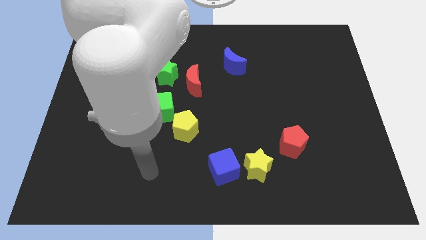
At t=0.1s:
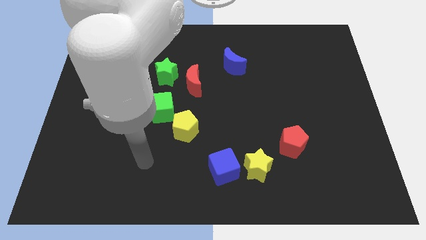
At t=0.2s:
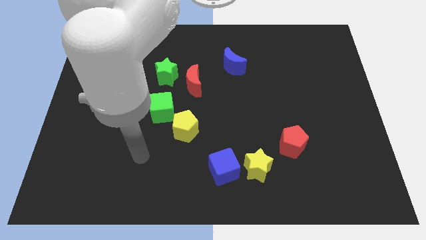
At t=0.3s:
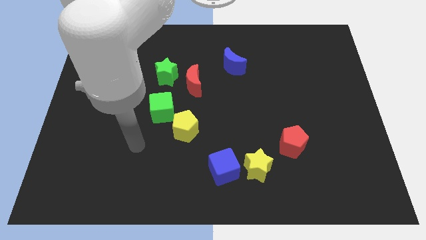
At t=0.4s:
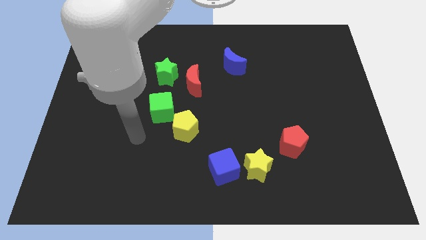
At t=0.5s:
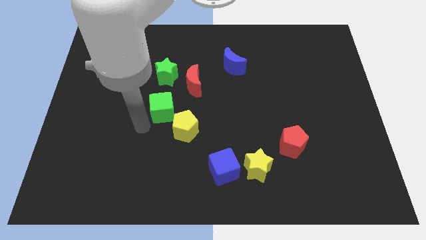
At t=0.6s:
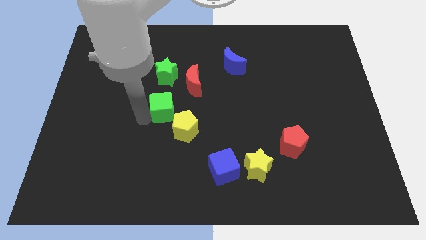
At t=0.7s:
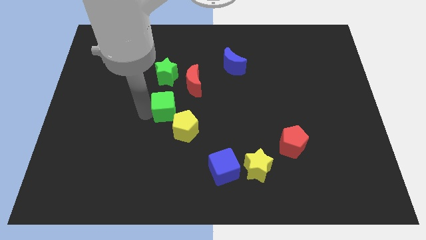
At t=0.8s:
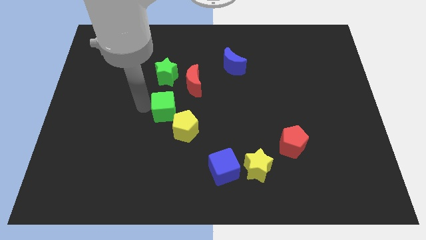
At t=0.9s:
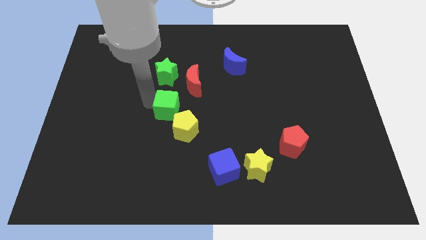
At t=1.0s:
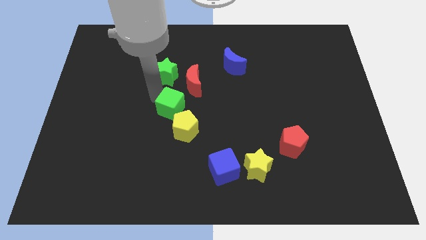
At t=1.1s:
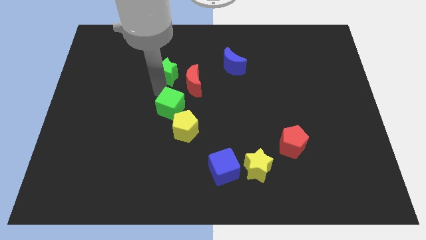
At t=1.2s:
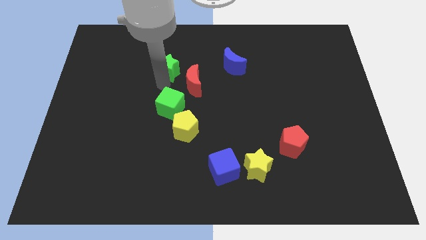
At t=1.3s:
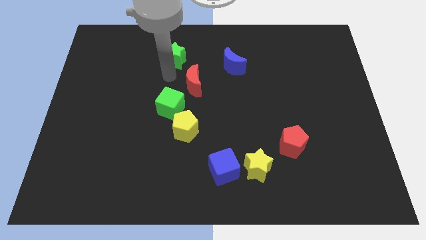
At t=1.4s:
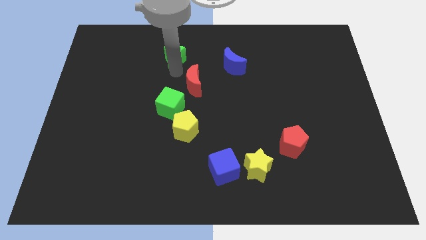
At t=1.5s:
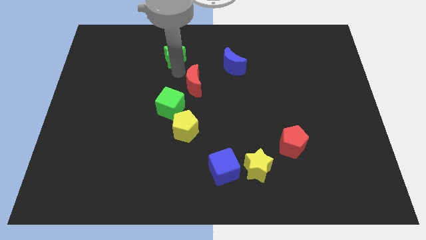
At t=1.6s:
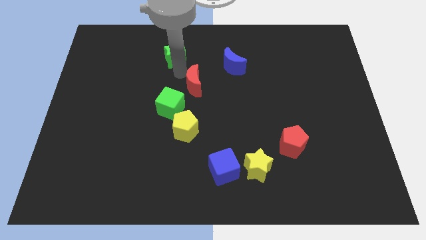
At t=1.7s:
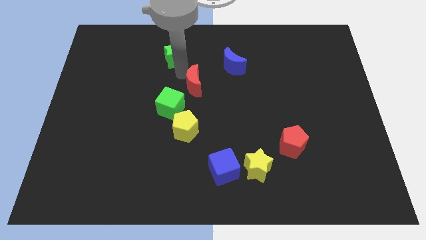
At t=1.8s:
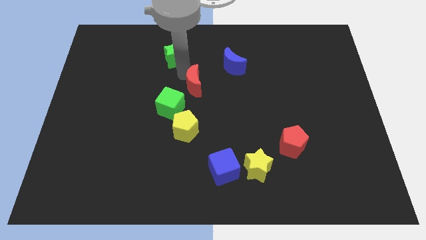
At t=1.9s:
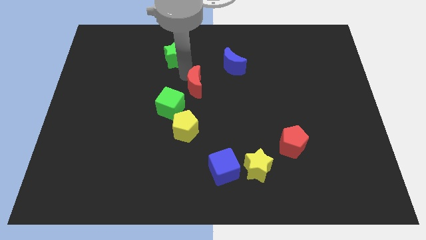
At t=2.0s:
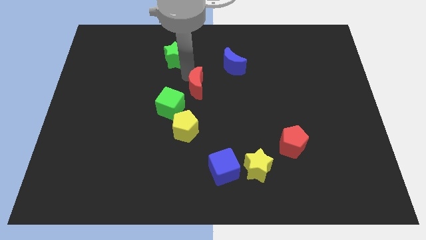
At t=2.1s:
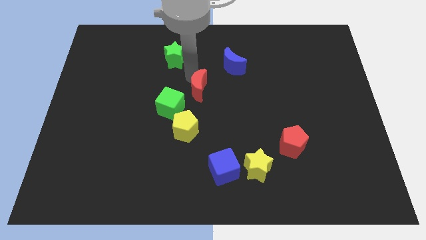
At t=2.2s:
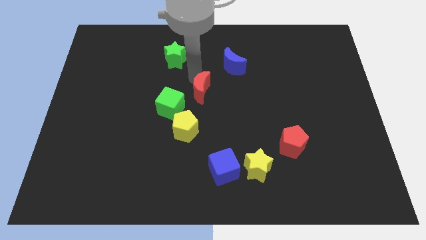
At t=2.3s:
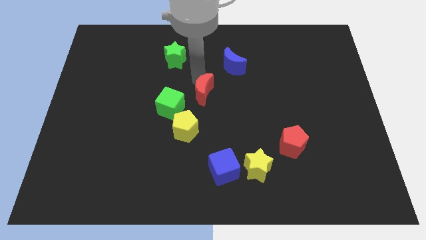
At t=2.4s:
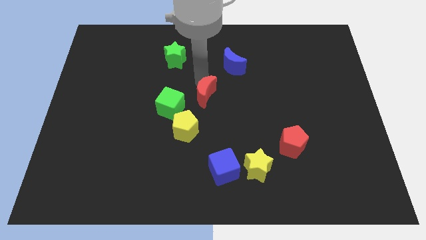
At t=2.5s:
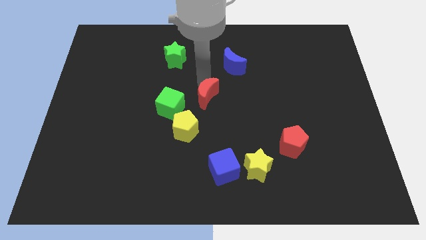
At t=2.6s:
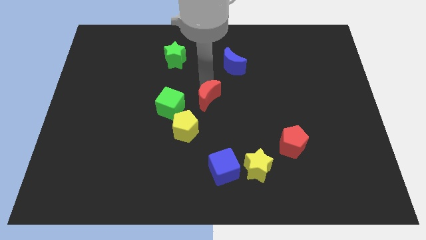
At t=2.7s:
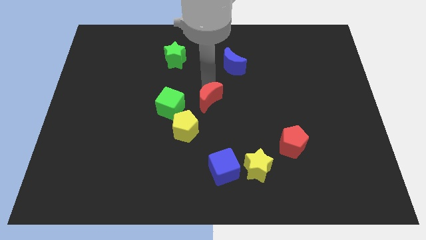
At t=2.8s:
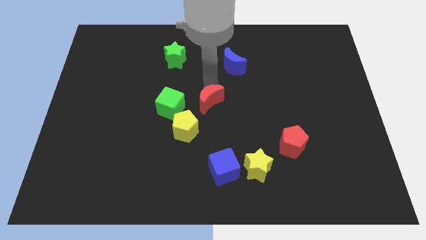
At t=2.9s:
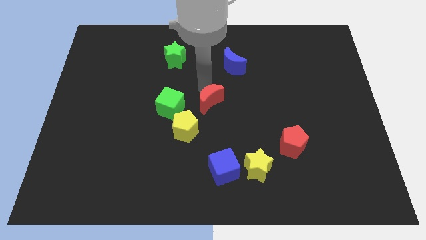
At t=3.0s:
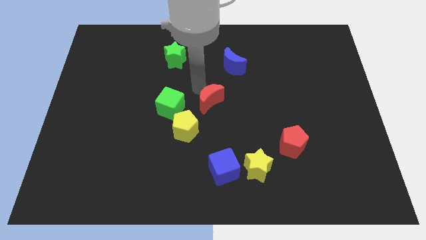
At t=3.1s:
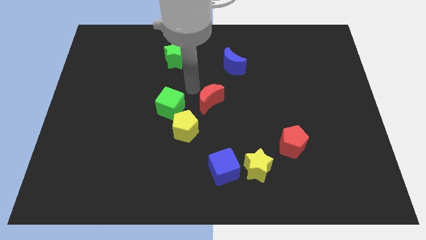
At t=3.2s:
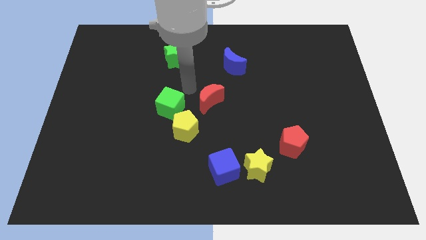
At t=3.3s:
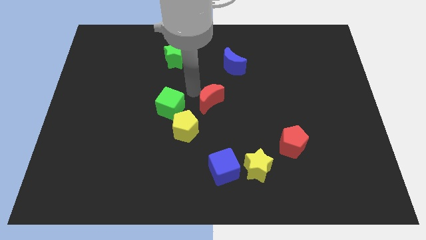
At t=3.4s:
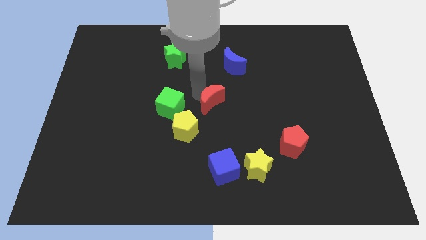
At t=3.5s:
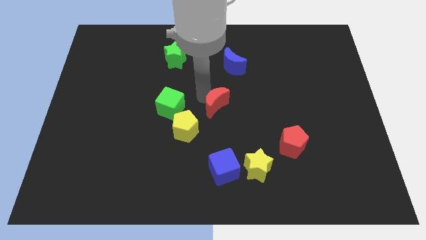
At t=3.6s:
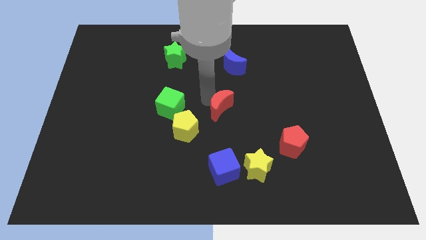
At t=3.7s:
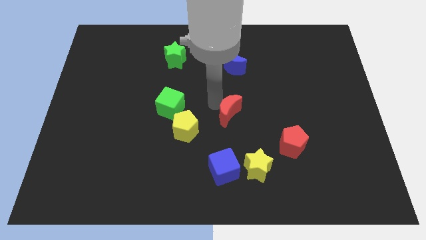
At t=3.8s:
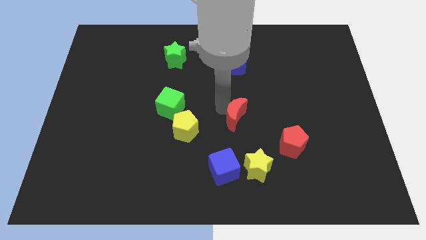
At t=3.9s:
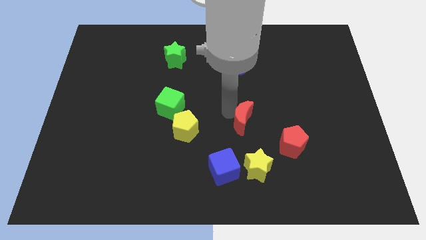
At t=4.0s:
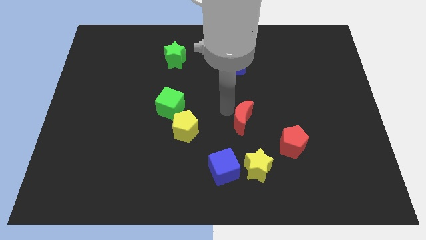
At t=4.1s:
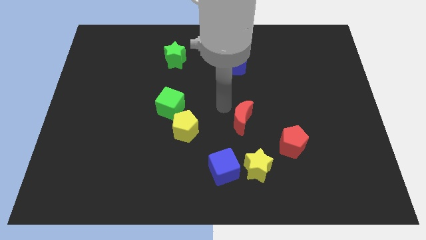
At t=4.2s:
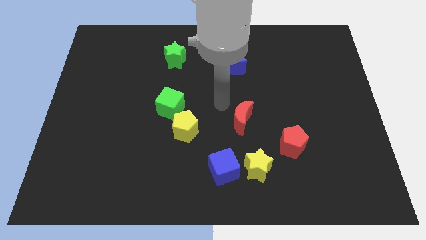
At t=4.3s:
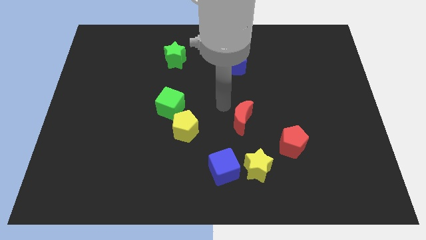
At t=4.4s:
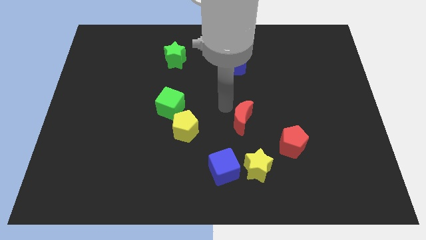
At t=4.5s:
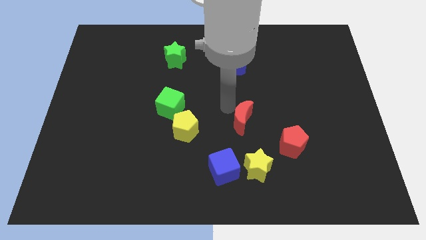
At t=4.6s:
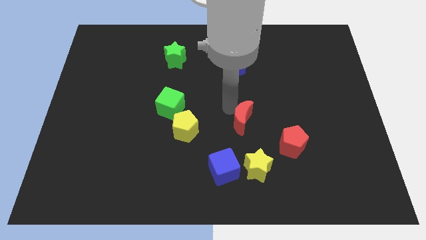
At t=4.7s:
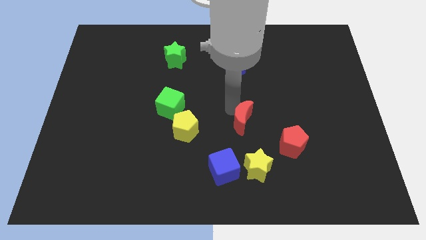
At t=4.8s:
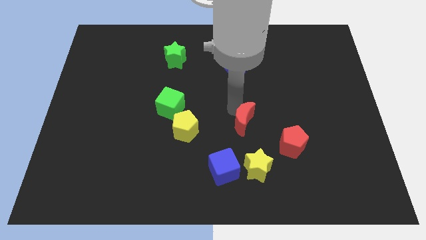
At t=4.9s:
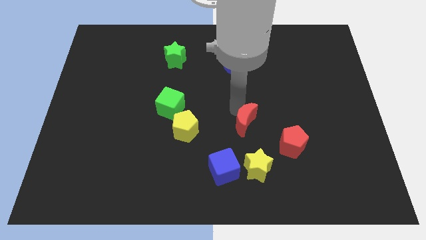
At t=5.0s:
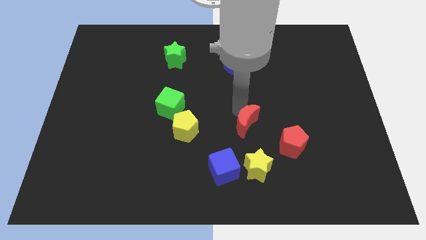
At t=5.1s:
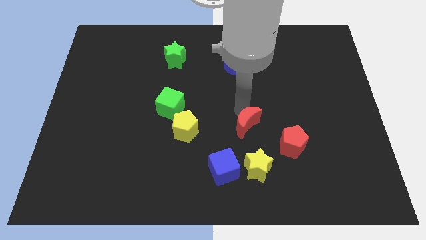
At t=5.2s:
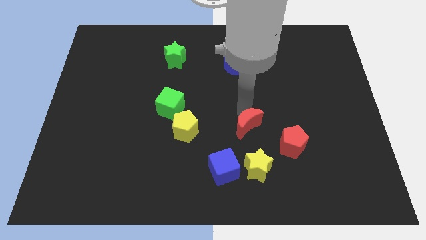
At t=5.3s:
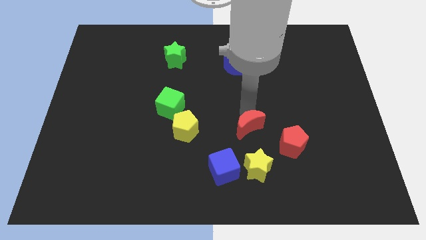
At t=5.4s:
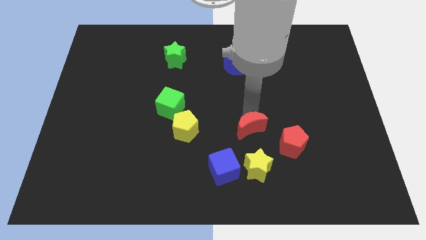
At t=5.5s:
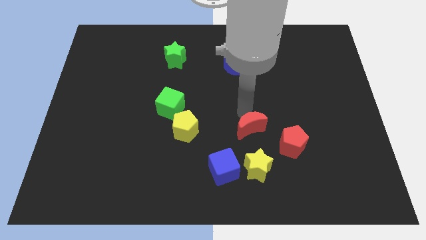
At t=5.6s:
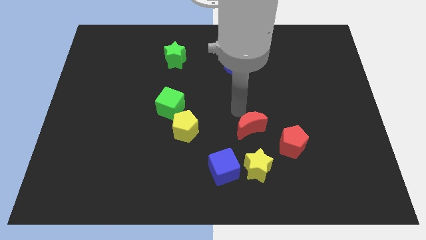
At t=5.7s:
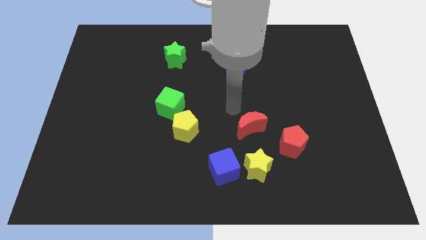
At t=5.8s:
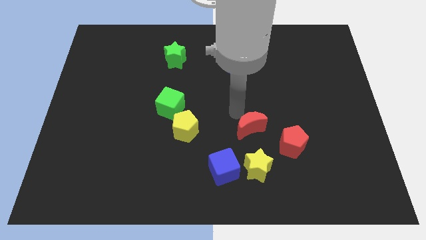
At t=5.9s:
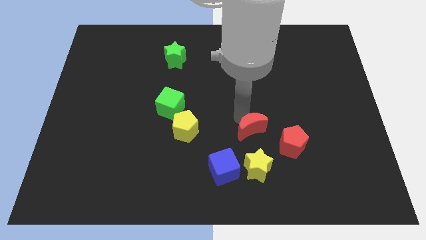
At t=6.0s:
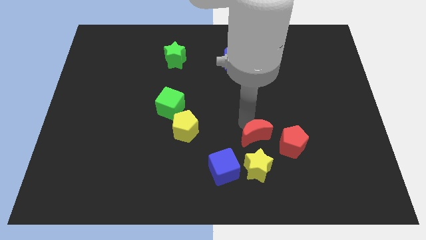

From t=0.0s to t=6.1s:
push the red moon down and right diagonally

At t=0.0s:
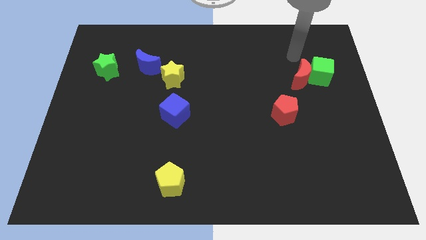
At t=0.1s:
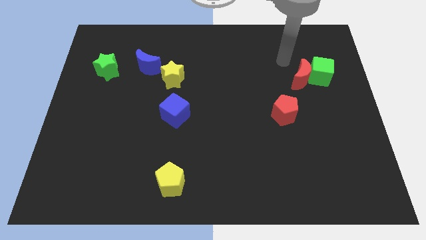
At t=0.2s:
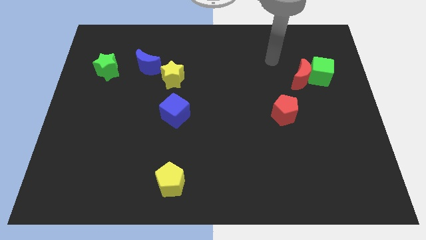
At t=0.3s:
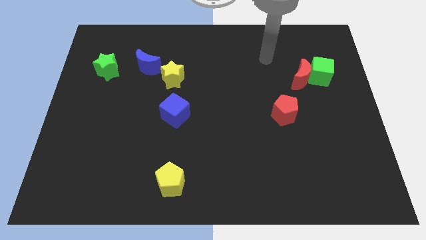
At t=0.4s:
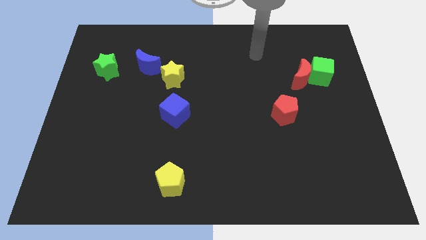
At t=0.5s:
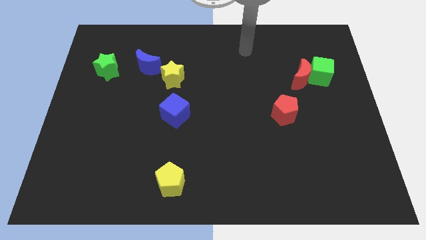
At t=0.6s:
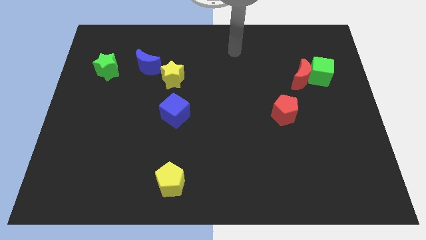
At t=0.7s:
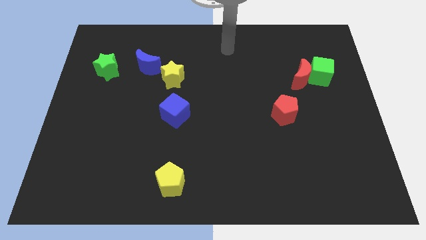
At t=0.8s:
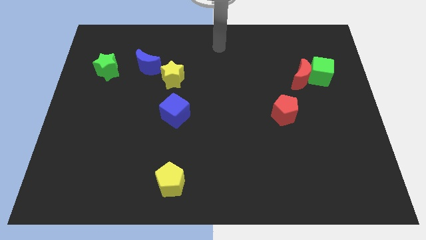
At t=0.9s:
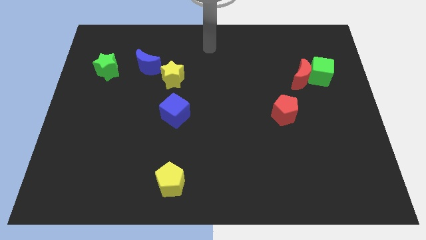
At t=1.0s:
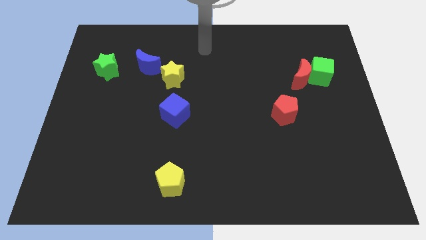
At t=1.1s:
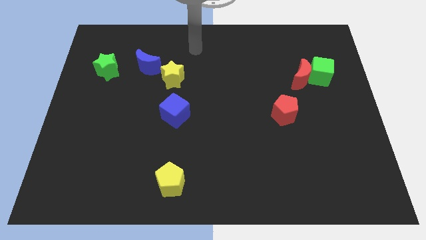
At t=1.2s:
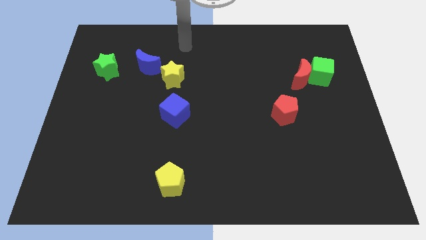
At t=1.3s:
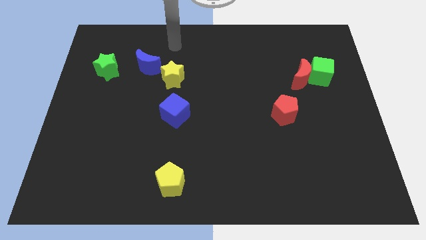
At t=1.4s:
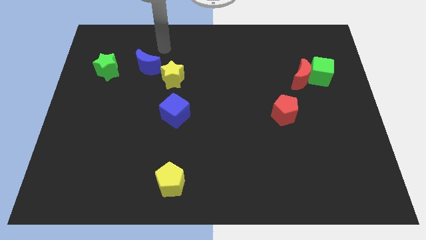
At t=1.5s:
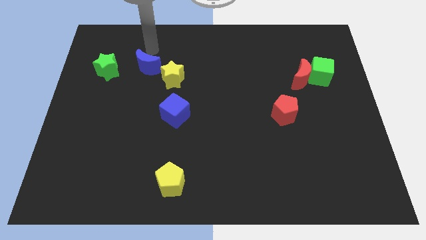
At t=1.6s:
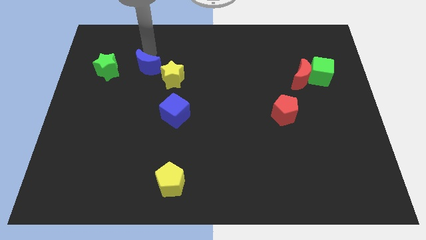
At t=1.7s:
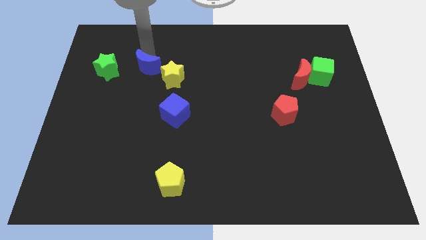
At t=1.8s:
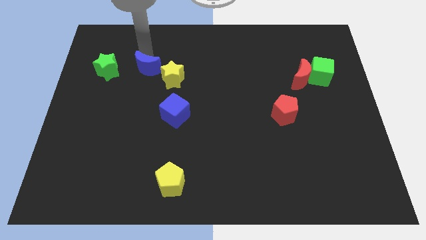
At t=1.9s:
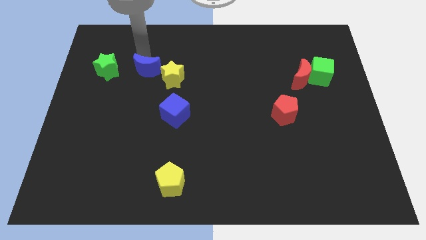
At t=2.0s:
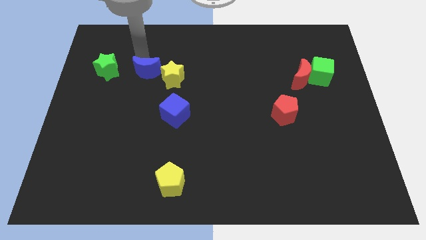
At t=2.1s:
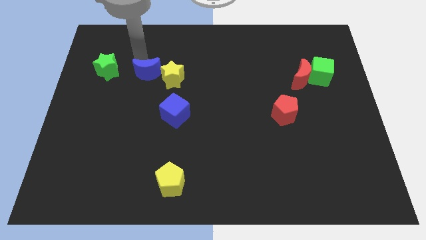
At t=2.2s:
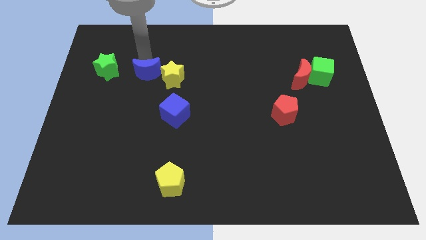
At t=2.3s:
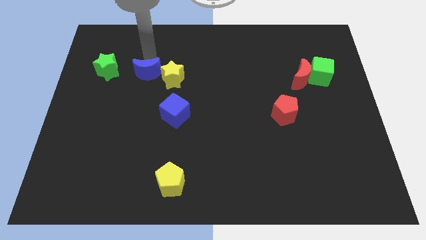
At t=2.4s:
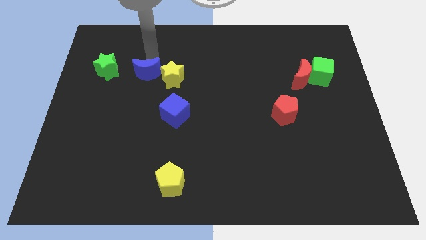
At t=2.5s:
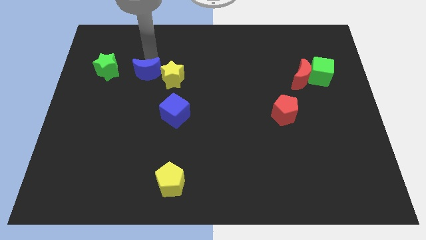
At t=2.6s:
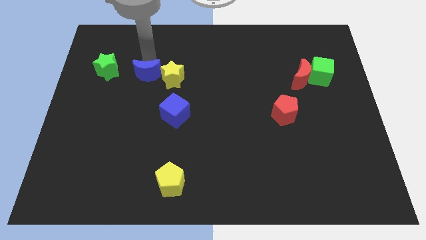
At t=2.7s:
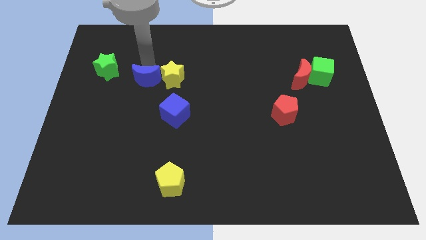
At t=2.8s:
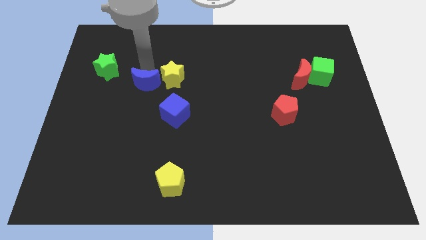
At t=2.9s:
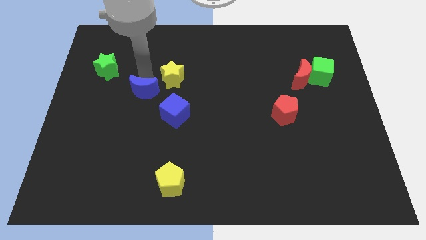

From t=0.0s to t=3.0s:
slightly slide the blue moon downwards
